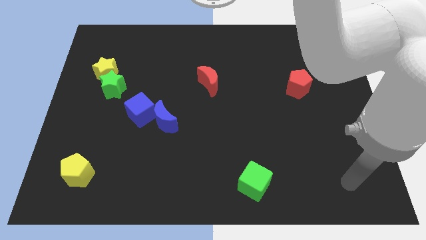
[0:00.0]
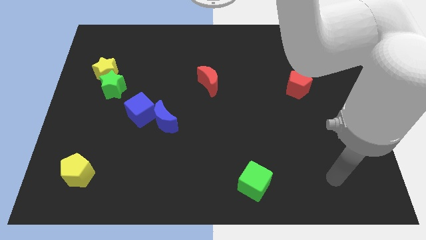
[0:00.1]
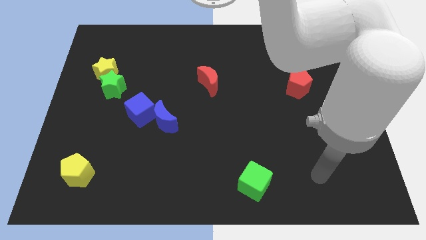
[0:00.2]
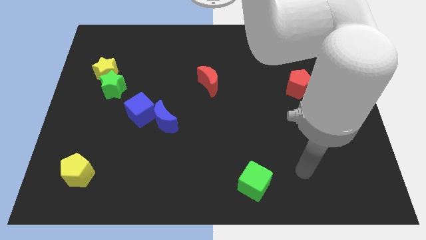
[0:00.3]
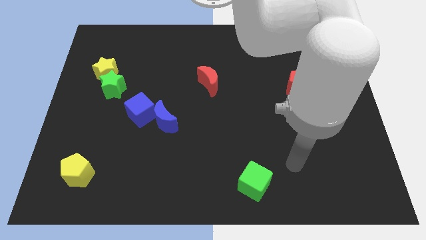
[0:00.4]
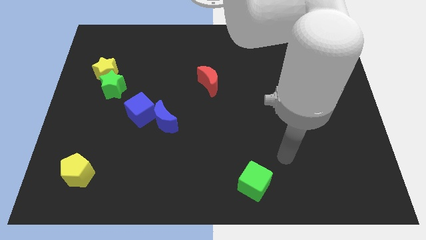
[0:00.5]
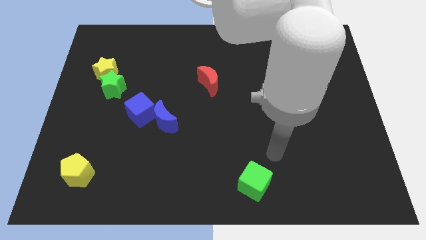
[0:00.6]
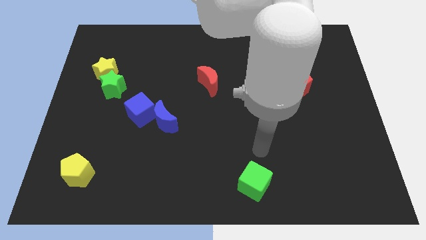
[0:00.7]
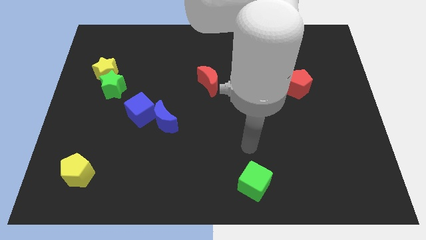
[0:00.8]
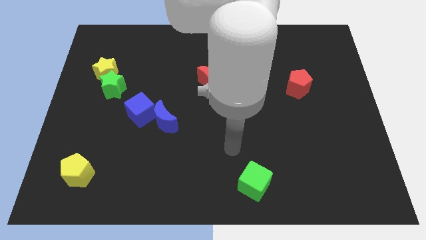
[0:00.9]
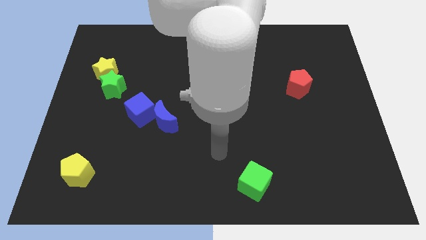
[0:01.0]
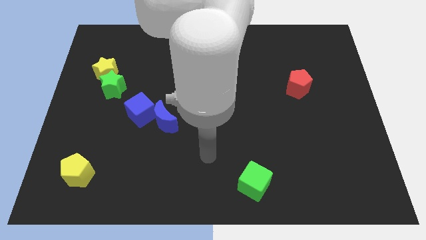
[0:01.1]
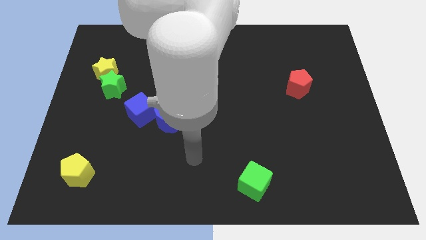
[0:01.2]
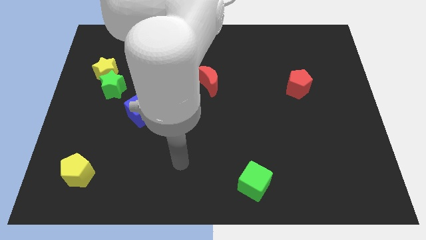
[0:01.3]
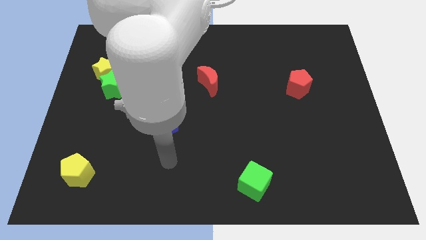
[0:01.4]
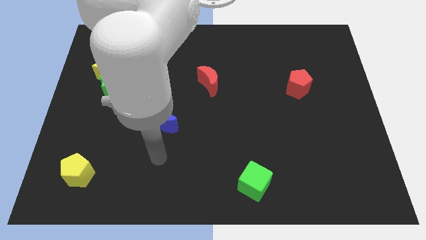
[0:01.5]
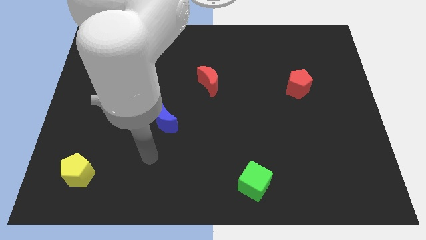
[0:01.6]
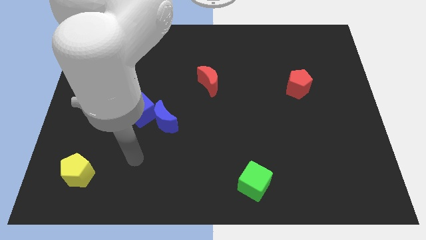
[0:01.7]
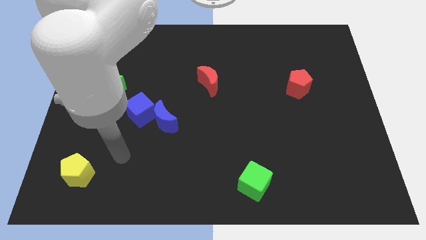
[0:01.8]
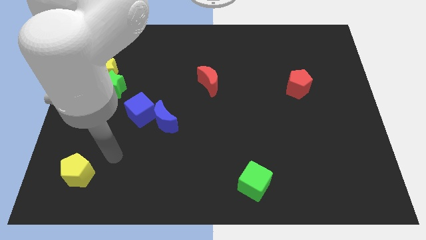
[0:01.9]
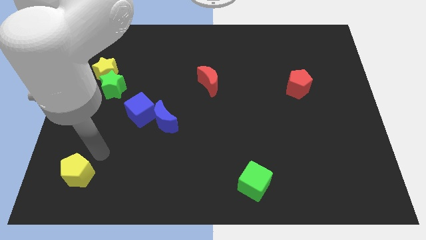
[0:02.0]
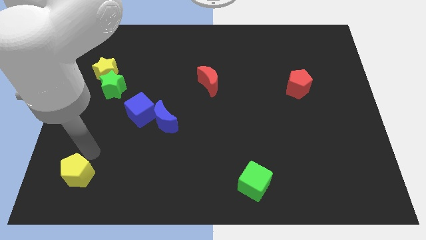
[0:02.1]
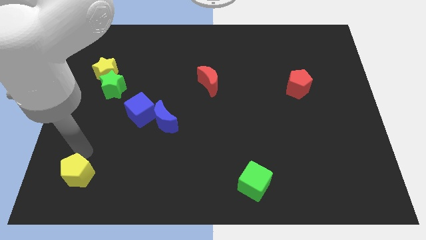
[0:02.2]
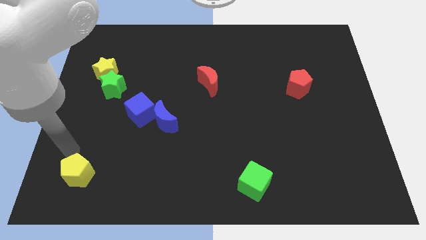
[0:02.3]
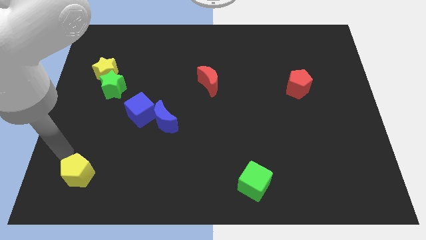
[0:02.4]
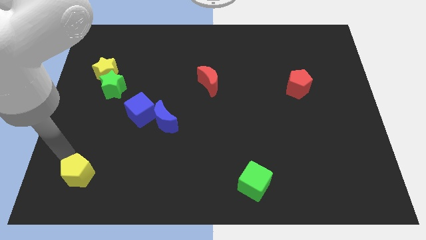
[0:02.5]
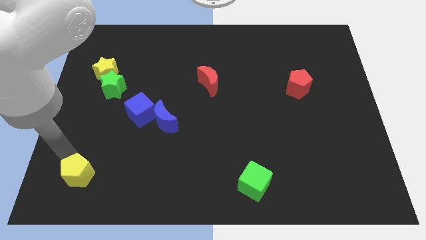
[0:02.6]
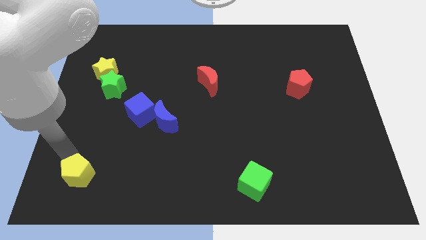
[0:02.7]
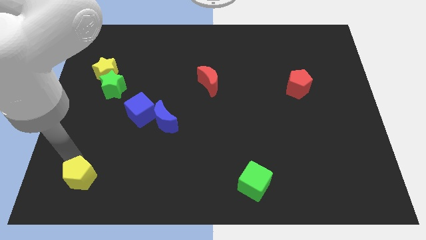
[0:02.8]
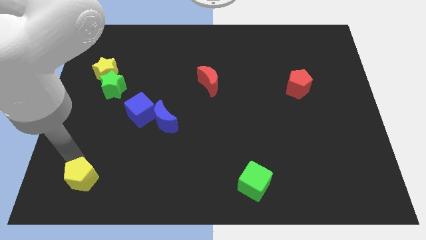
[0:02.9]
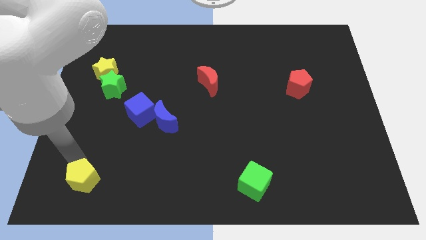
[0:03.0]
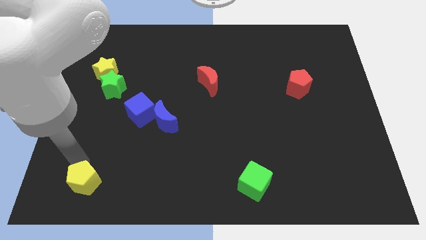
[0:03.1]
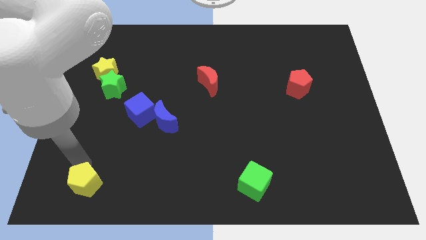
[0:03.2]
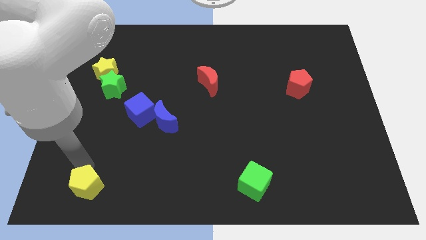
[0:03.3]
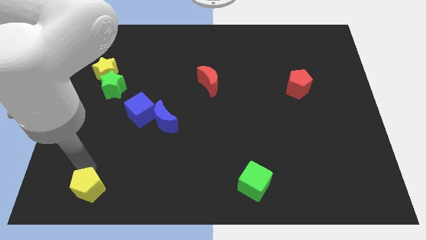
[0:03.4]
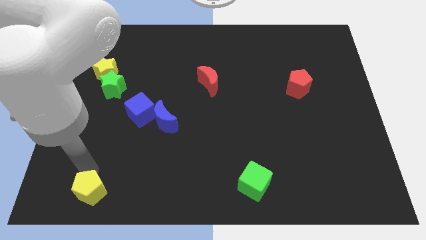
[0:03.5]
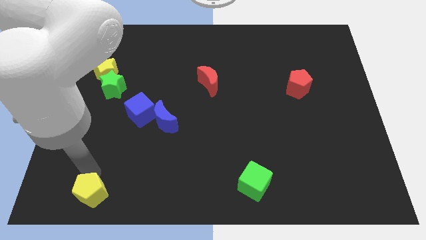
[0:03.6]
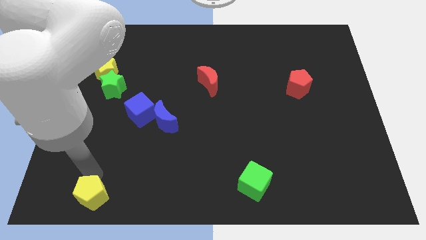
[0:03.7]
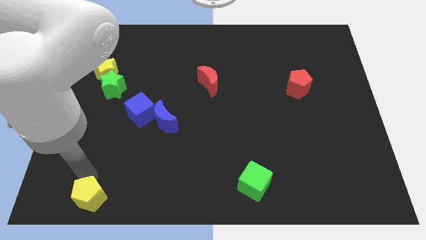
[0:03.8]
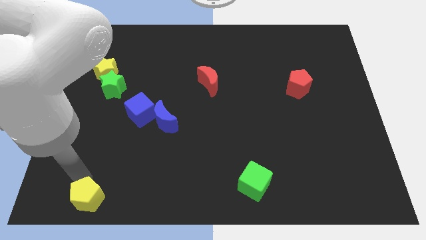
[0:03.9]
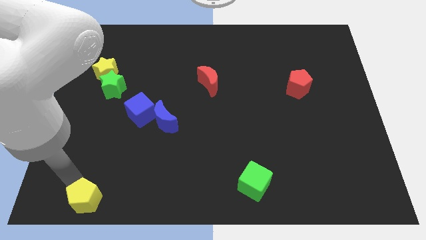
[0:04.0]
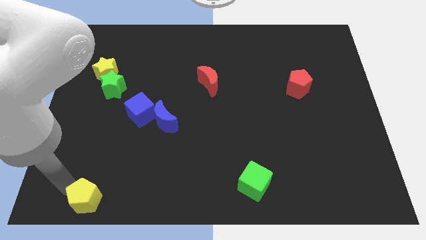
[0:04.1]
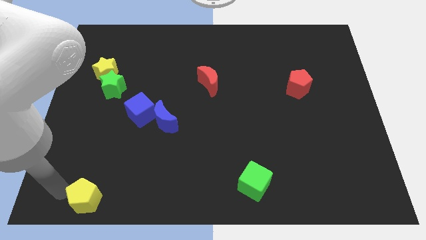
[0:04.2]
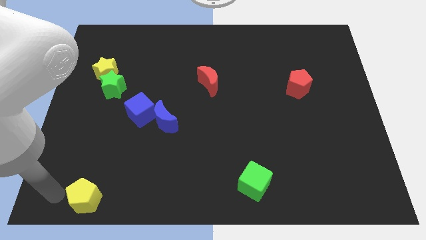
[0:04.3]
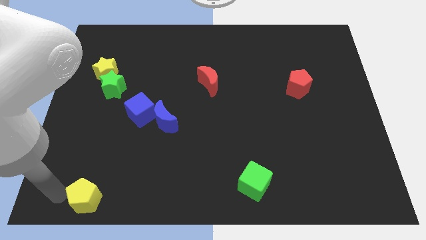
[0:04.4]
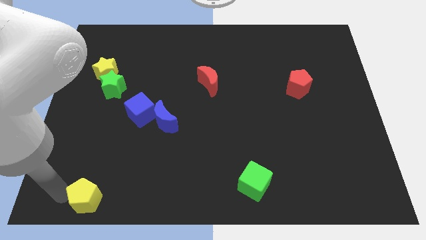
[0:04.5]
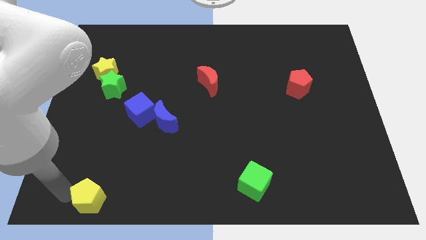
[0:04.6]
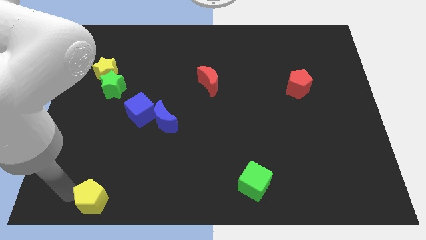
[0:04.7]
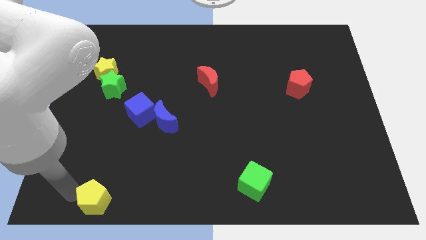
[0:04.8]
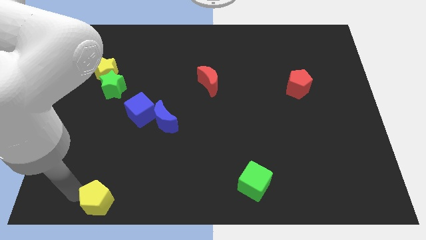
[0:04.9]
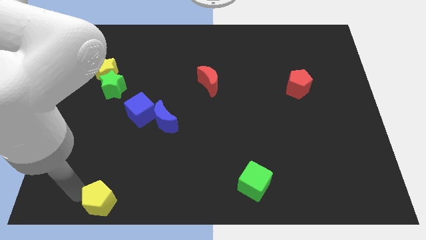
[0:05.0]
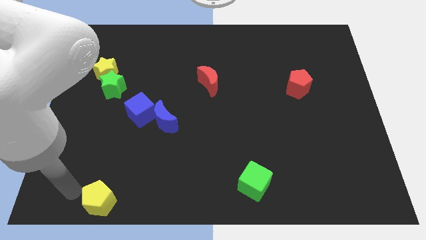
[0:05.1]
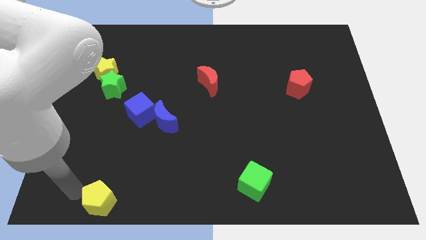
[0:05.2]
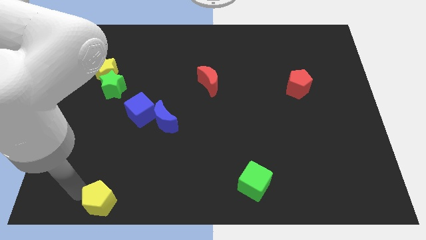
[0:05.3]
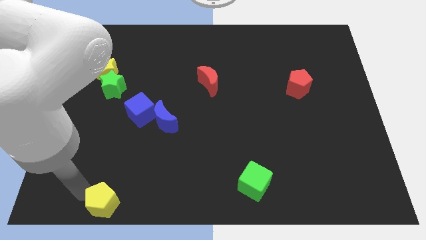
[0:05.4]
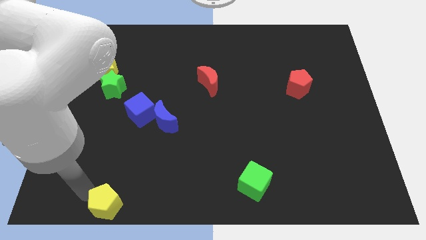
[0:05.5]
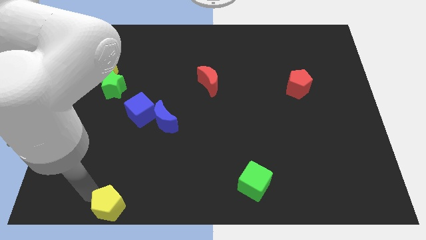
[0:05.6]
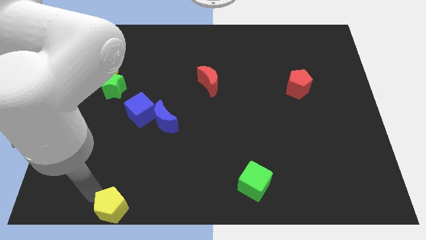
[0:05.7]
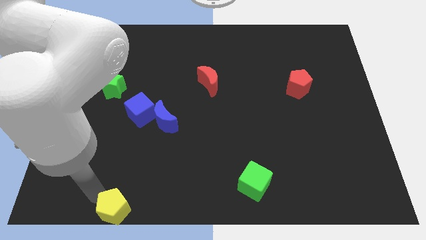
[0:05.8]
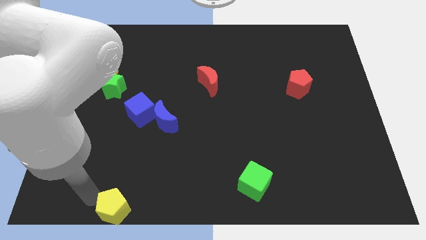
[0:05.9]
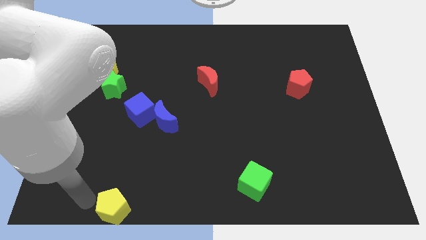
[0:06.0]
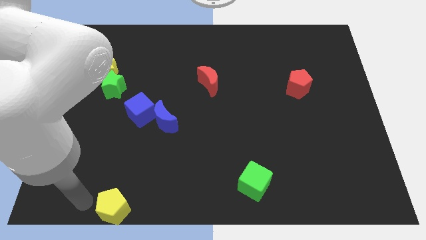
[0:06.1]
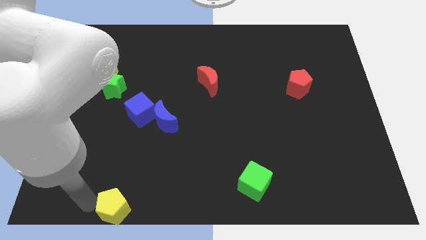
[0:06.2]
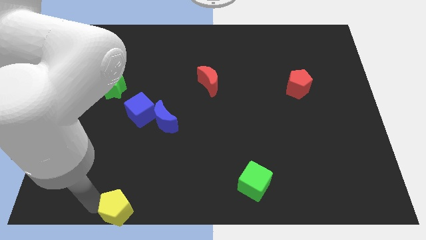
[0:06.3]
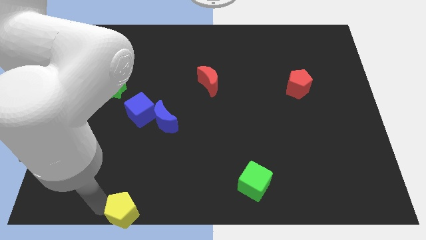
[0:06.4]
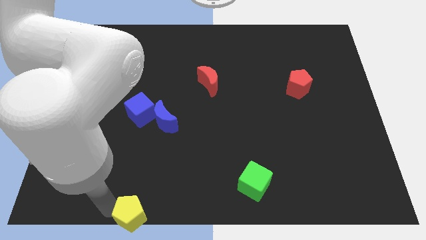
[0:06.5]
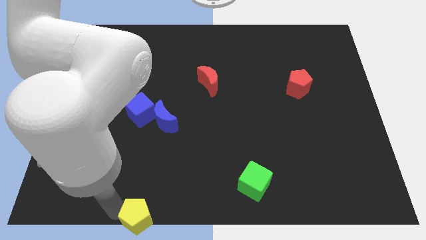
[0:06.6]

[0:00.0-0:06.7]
move the yellow pentagon to the bottom side

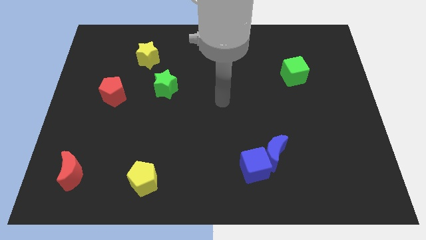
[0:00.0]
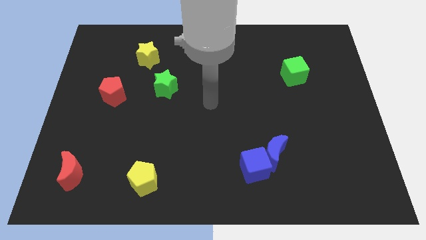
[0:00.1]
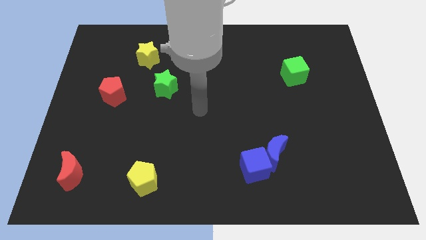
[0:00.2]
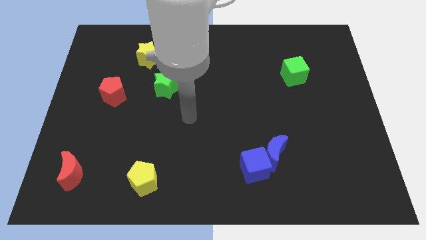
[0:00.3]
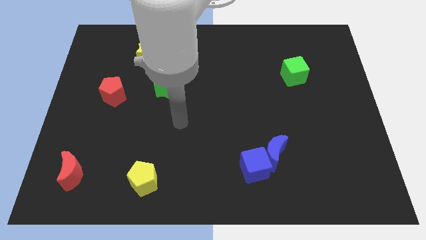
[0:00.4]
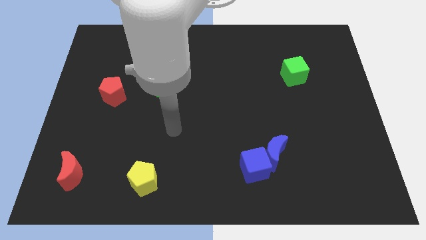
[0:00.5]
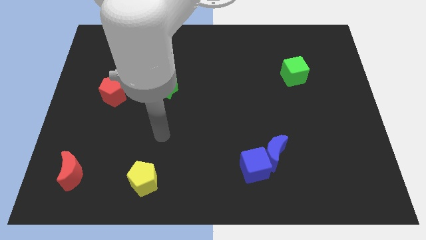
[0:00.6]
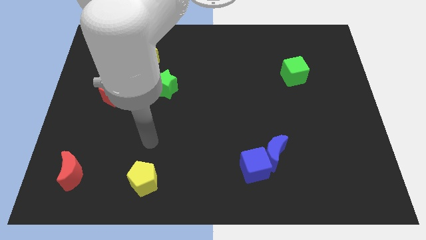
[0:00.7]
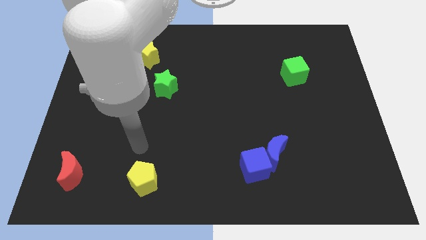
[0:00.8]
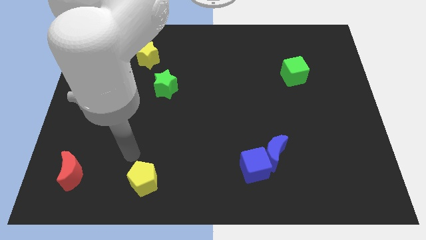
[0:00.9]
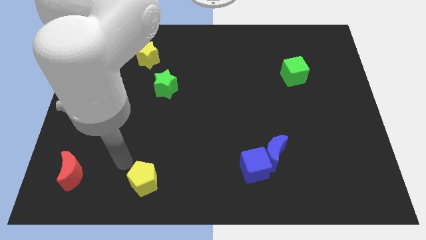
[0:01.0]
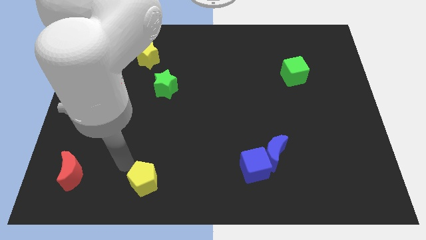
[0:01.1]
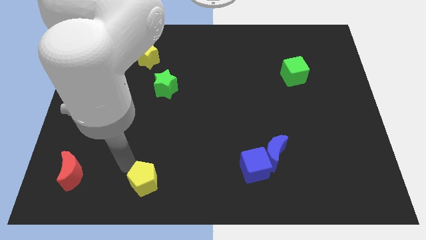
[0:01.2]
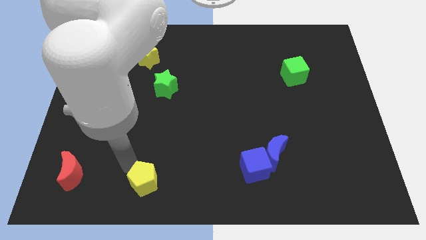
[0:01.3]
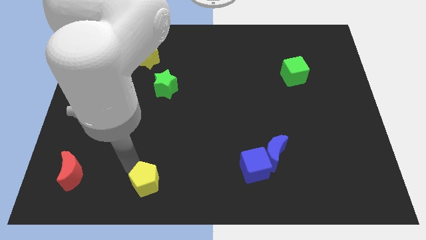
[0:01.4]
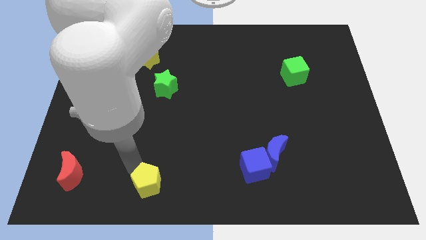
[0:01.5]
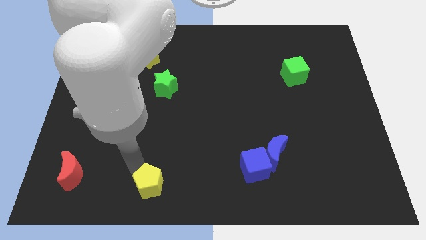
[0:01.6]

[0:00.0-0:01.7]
move the yellow pentagon to the bottom
